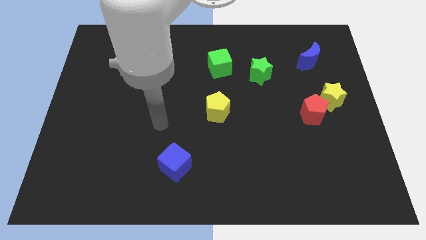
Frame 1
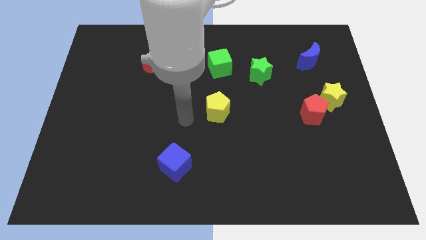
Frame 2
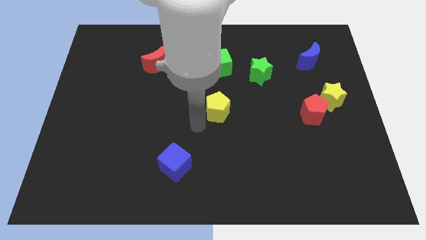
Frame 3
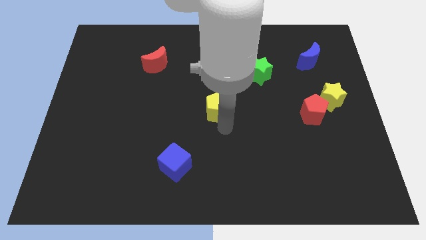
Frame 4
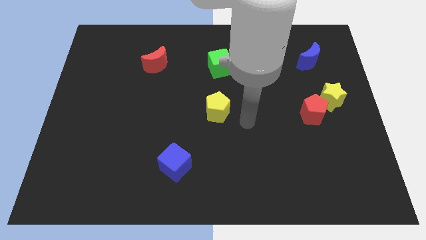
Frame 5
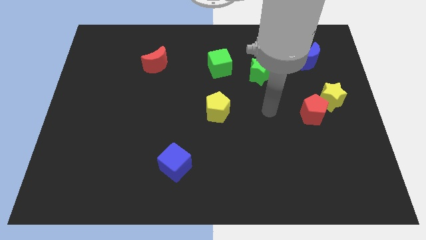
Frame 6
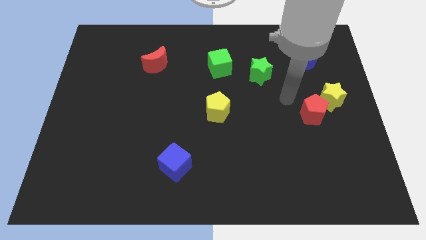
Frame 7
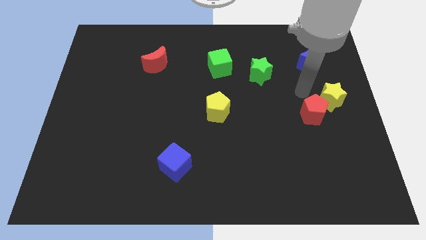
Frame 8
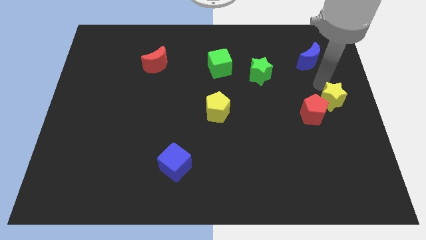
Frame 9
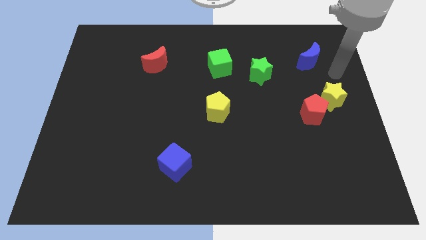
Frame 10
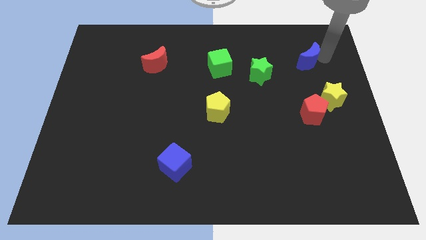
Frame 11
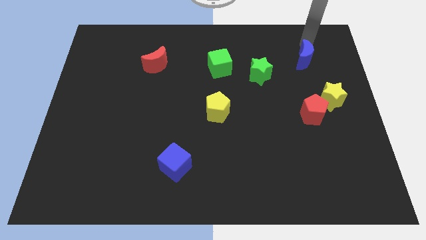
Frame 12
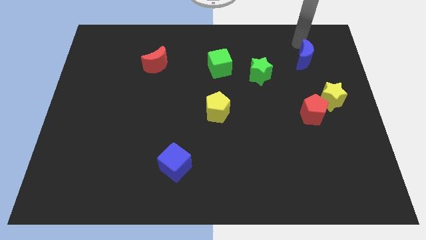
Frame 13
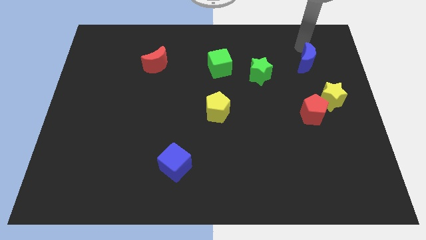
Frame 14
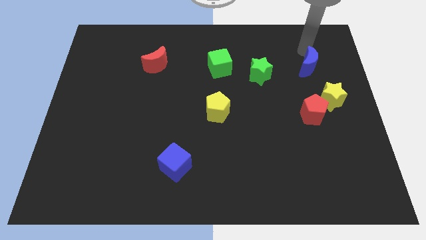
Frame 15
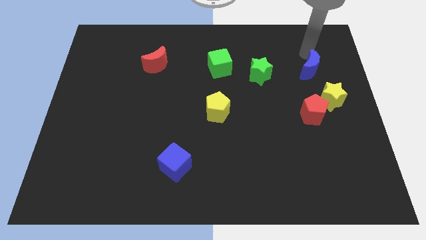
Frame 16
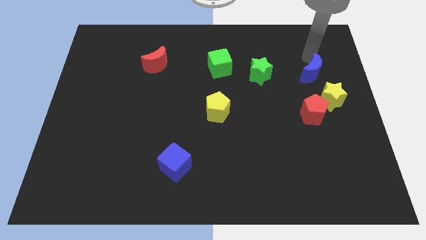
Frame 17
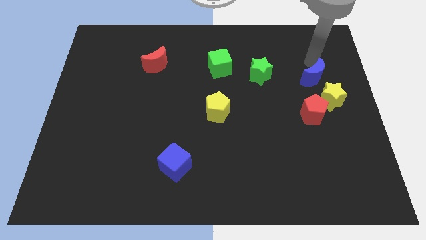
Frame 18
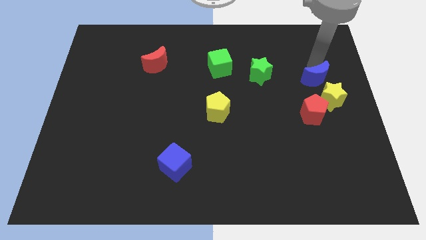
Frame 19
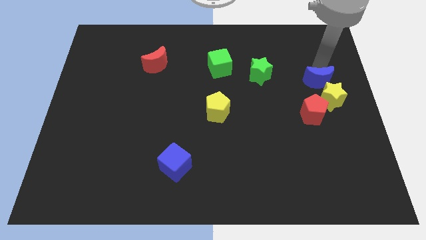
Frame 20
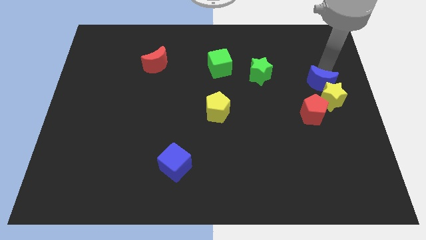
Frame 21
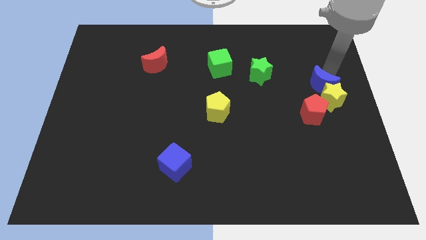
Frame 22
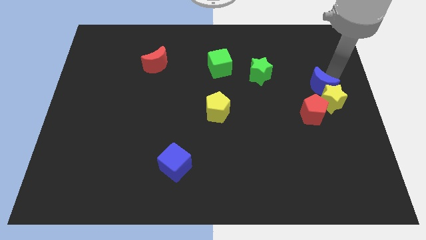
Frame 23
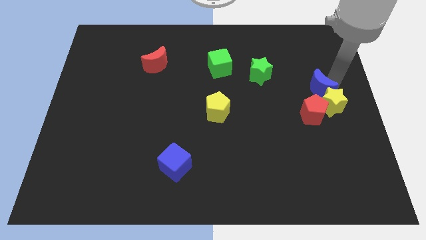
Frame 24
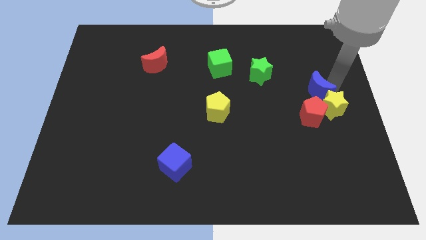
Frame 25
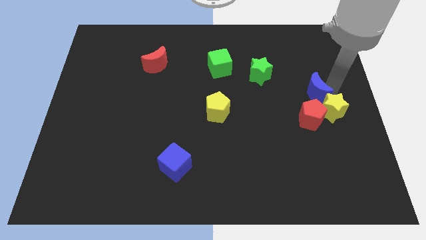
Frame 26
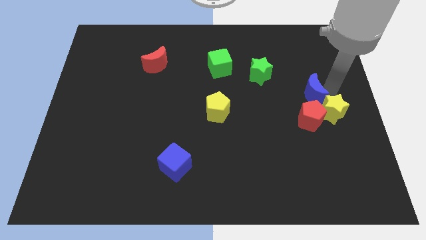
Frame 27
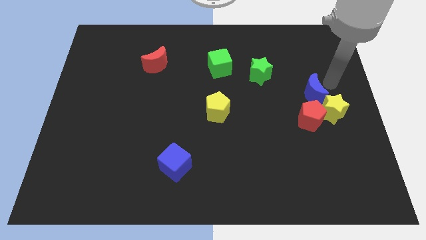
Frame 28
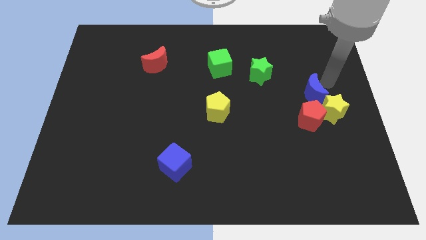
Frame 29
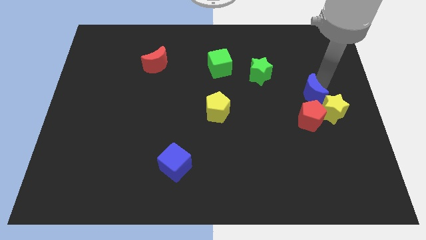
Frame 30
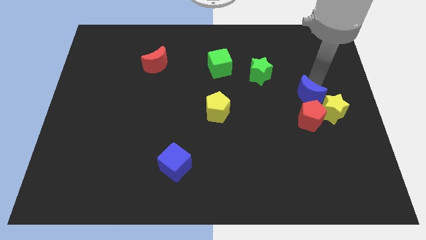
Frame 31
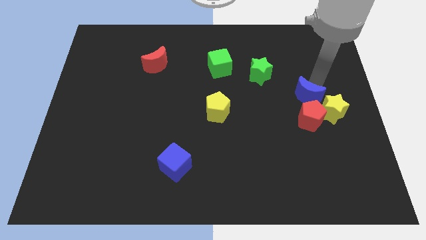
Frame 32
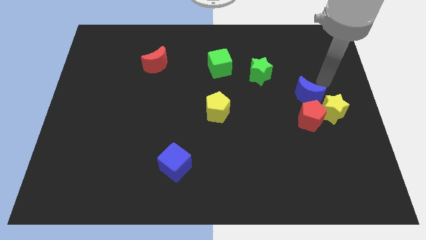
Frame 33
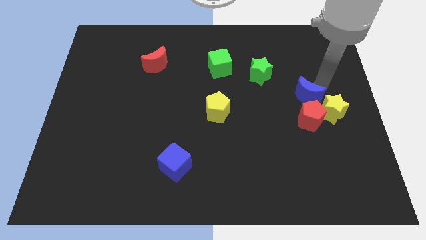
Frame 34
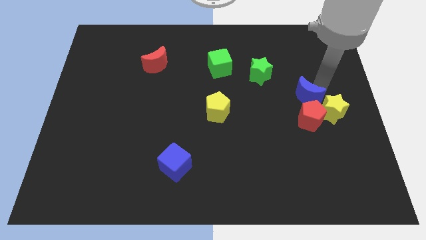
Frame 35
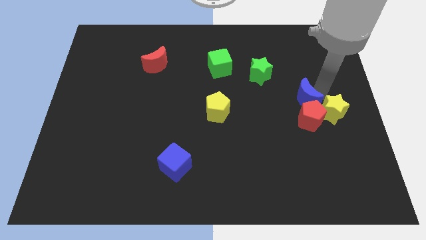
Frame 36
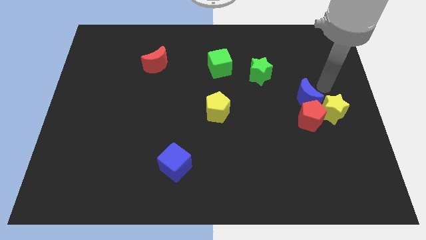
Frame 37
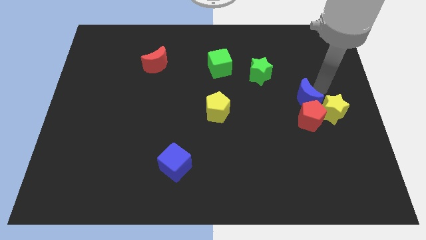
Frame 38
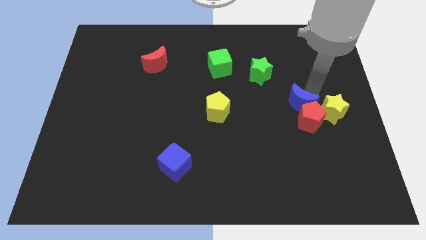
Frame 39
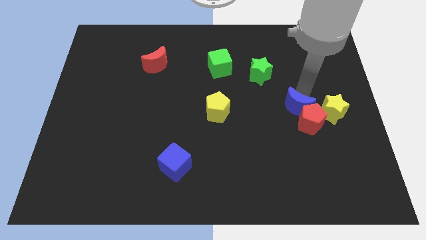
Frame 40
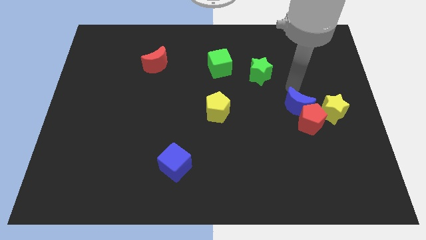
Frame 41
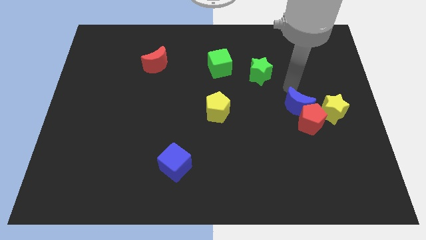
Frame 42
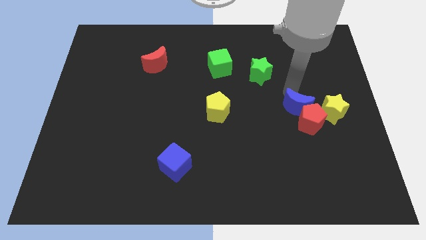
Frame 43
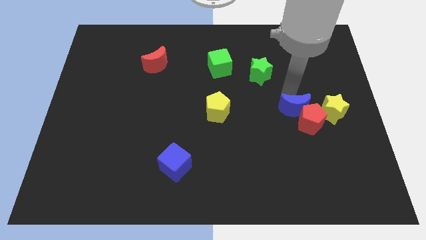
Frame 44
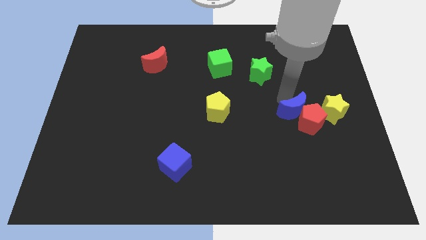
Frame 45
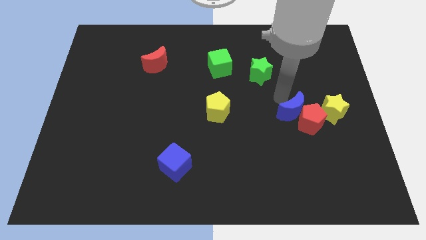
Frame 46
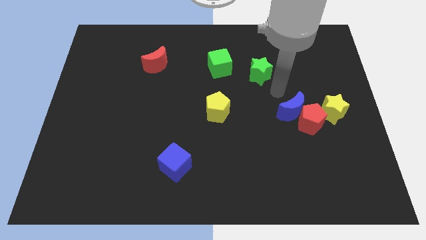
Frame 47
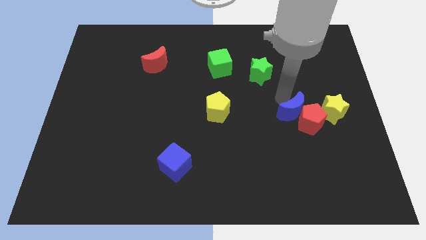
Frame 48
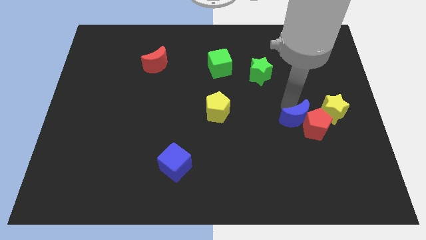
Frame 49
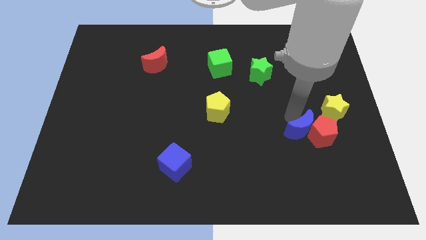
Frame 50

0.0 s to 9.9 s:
move the blue moon down

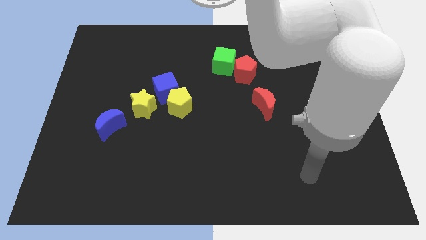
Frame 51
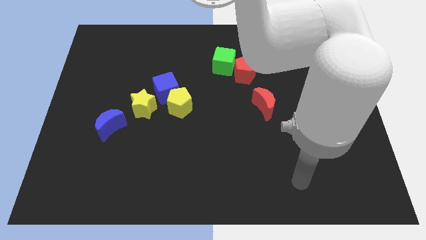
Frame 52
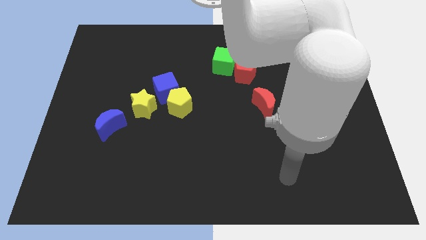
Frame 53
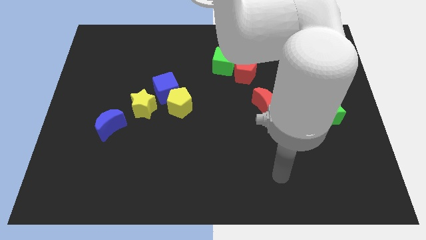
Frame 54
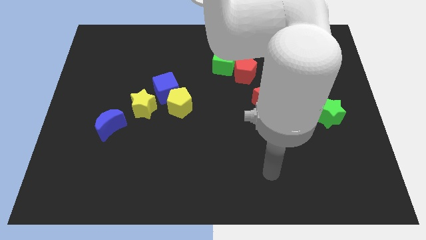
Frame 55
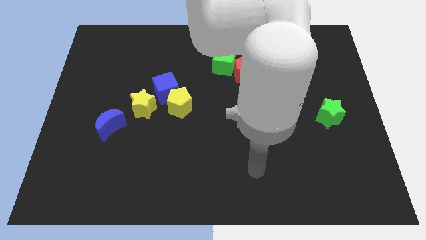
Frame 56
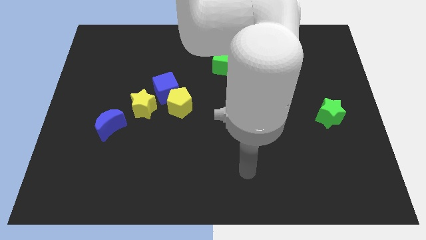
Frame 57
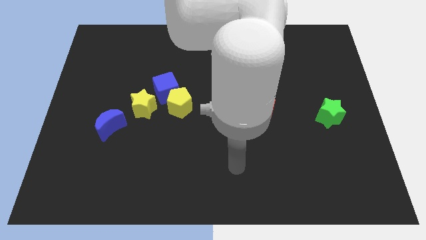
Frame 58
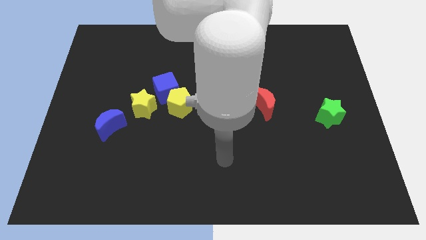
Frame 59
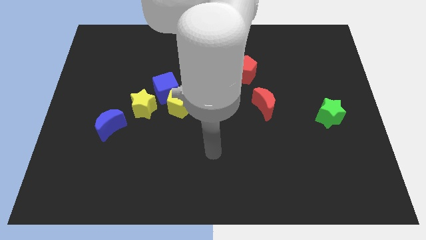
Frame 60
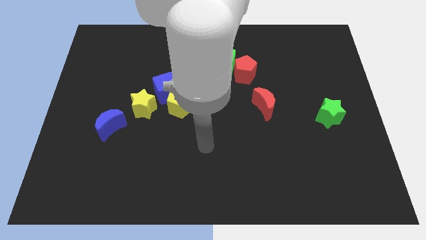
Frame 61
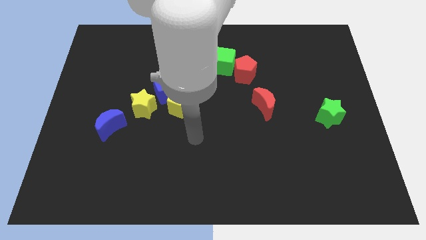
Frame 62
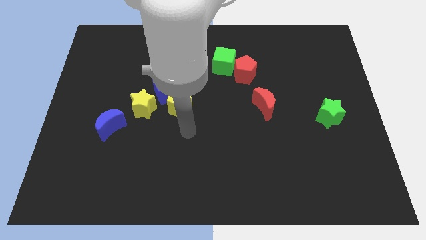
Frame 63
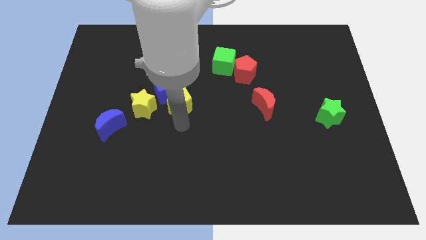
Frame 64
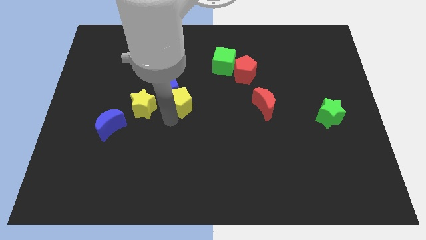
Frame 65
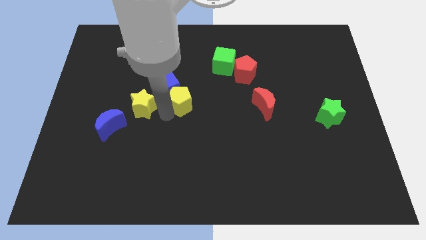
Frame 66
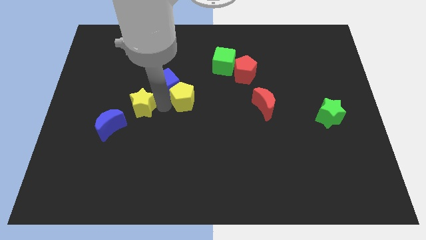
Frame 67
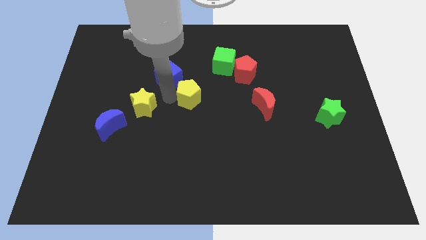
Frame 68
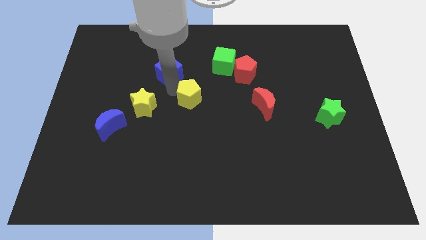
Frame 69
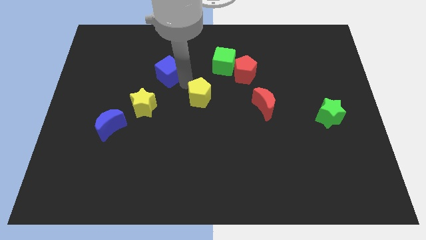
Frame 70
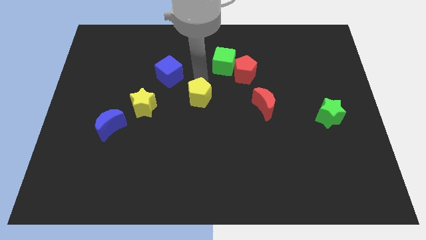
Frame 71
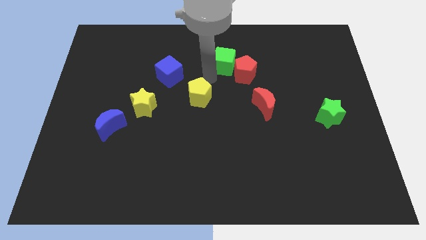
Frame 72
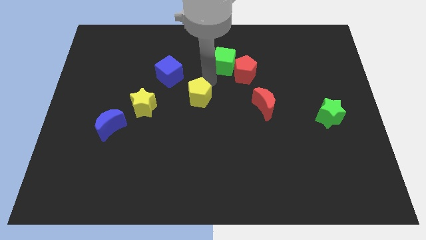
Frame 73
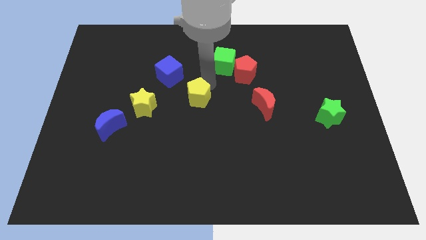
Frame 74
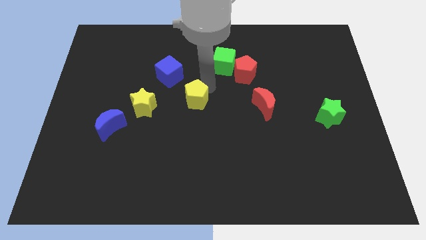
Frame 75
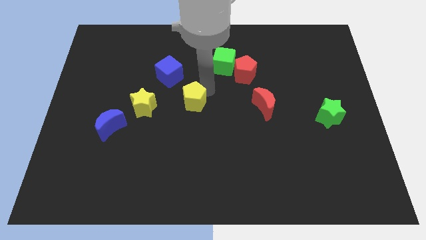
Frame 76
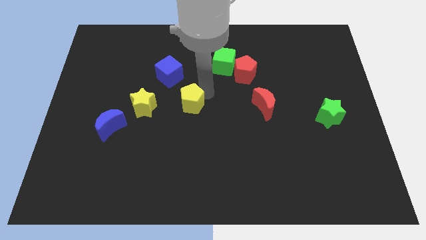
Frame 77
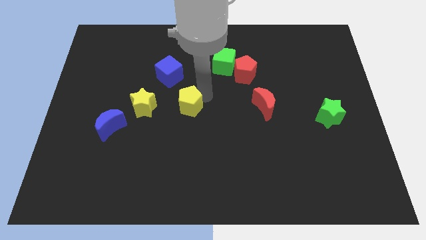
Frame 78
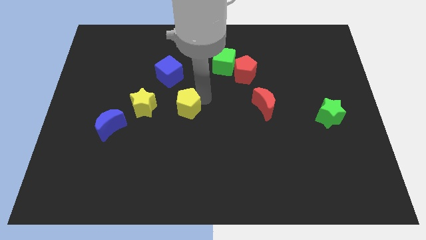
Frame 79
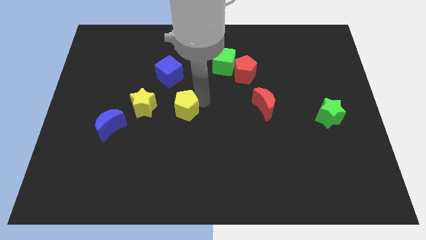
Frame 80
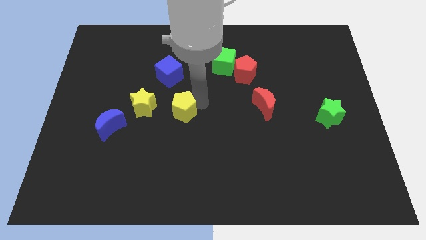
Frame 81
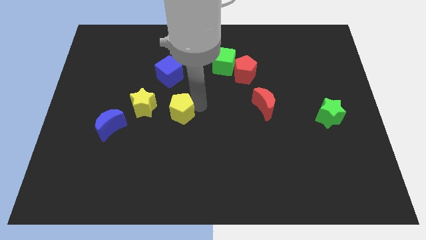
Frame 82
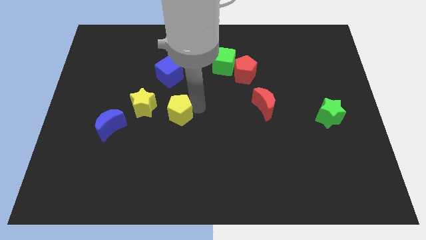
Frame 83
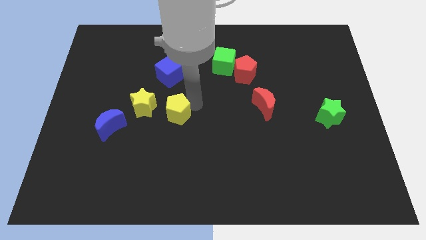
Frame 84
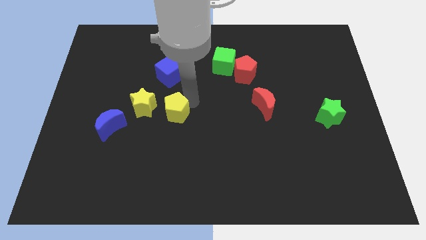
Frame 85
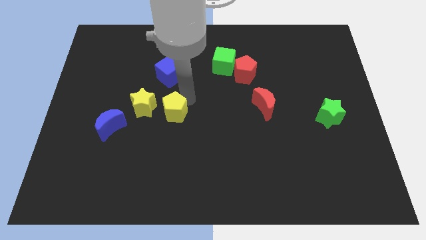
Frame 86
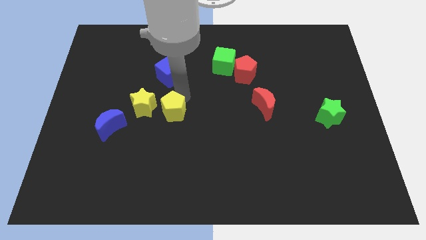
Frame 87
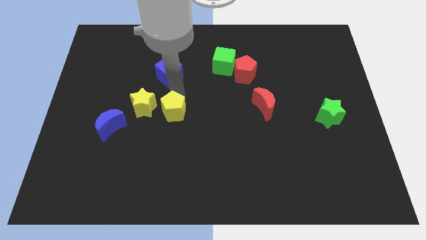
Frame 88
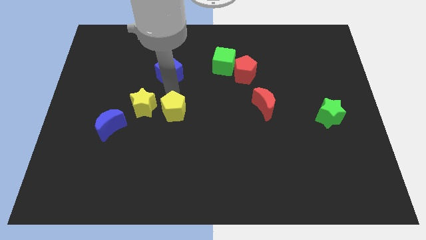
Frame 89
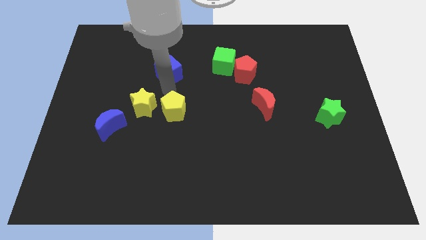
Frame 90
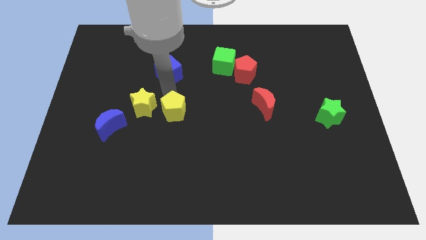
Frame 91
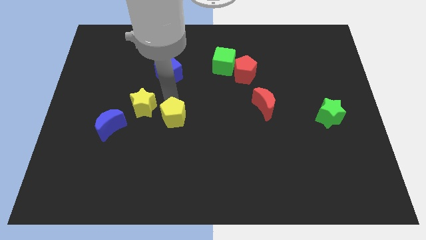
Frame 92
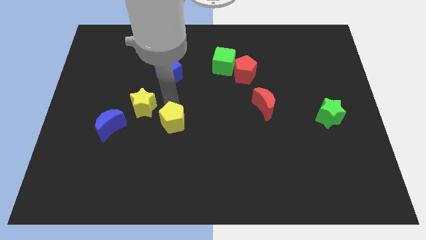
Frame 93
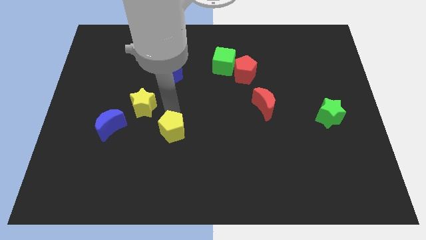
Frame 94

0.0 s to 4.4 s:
slightly slide the yellow pentagon down
